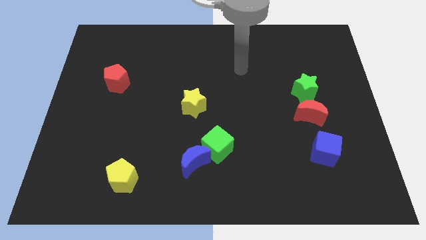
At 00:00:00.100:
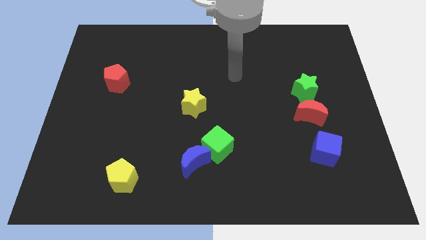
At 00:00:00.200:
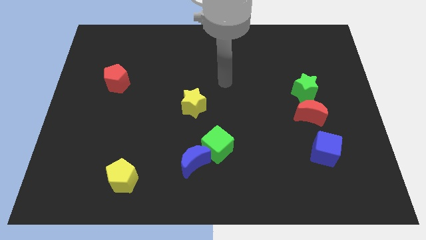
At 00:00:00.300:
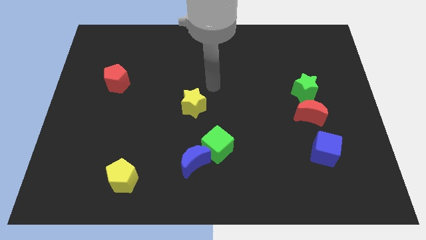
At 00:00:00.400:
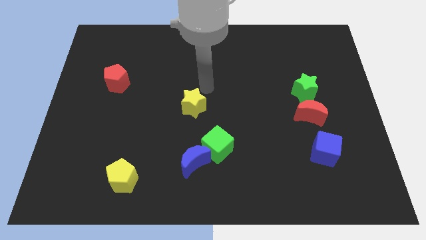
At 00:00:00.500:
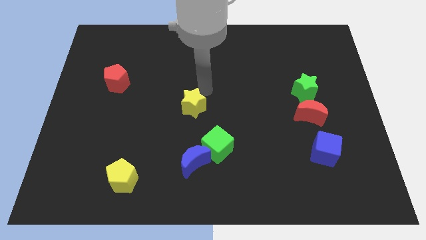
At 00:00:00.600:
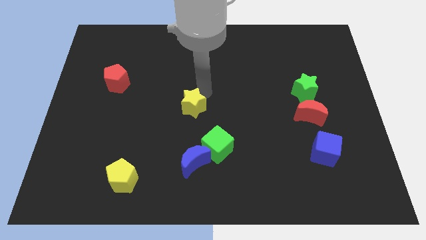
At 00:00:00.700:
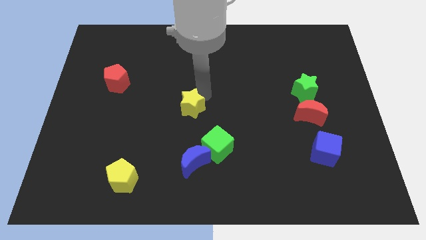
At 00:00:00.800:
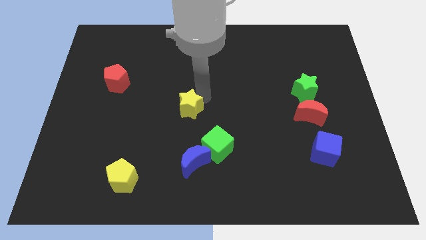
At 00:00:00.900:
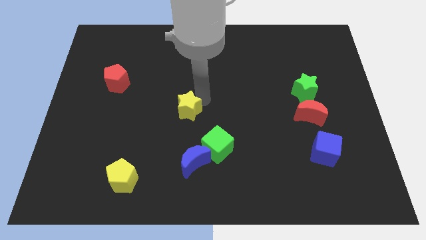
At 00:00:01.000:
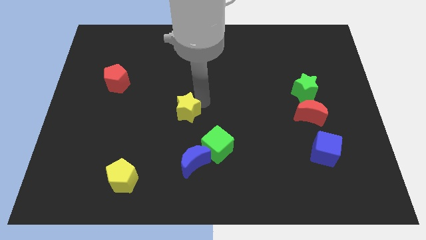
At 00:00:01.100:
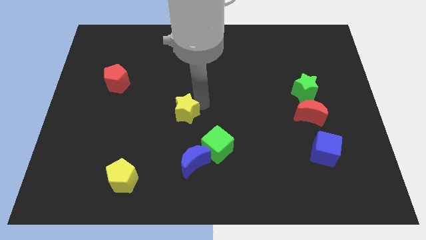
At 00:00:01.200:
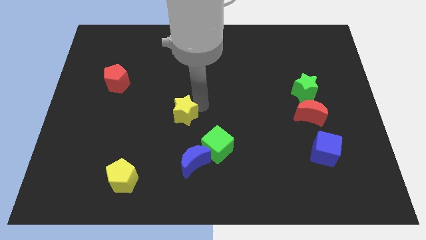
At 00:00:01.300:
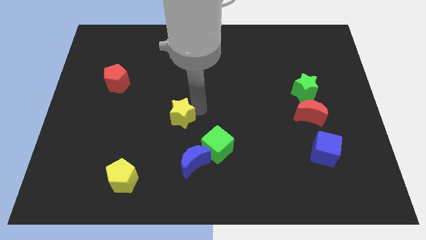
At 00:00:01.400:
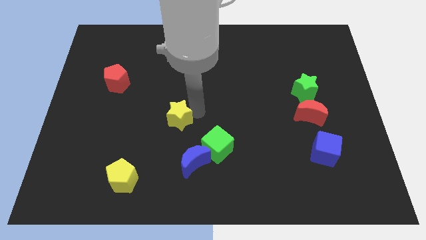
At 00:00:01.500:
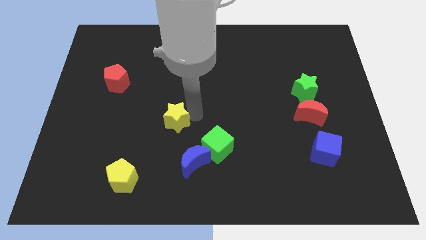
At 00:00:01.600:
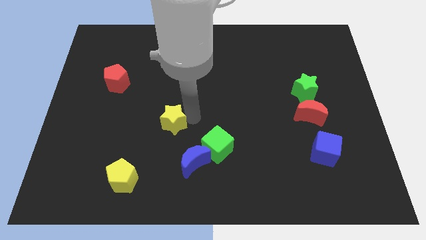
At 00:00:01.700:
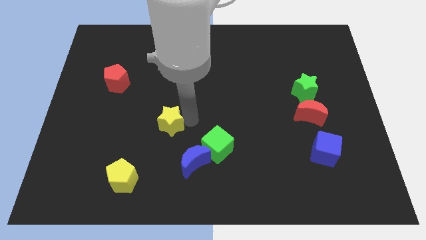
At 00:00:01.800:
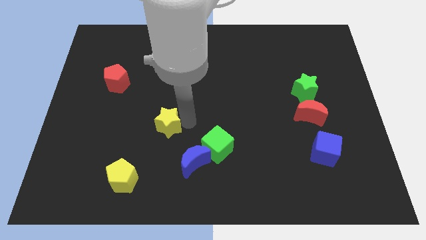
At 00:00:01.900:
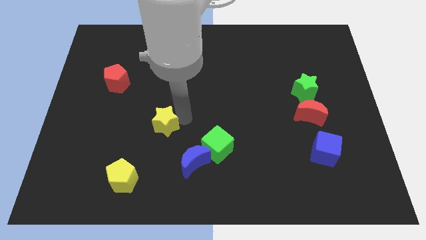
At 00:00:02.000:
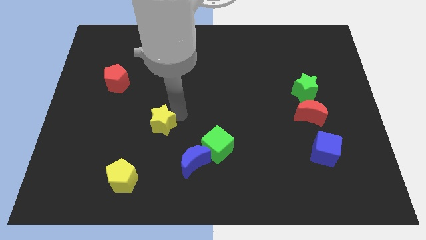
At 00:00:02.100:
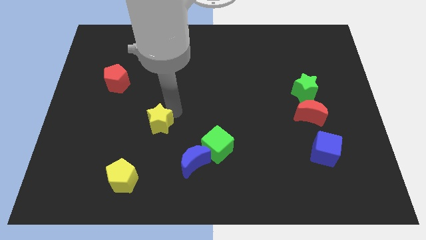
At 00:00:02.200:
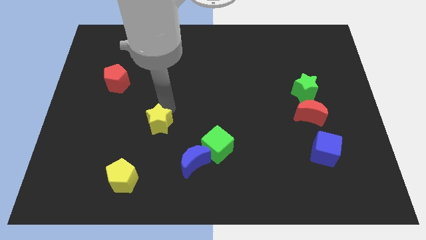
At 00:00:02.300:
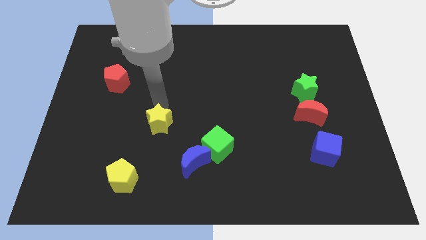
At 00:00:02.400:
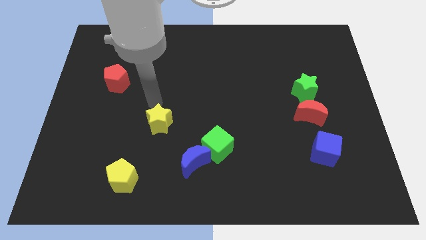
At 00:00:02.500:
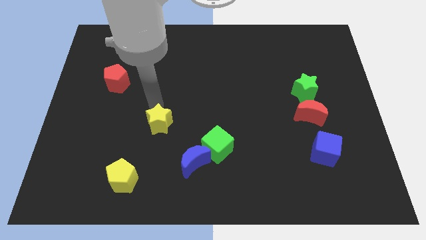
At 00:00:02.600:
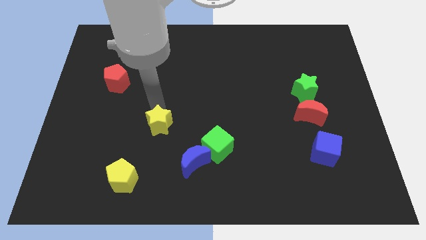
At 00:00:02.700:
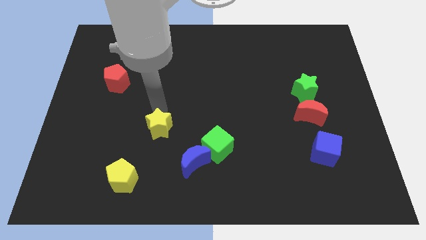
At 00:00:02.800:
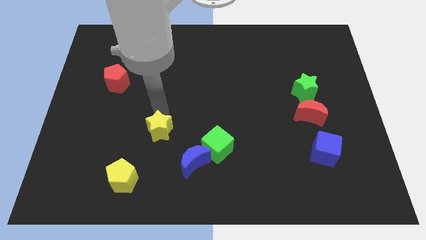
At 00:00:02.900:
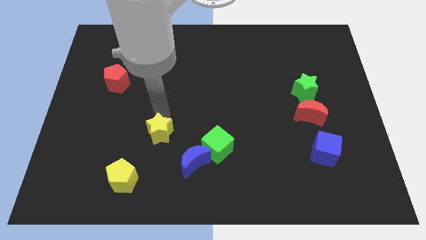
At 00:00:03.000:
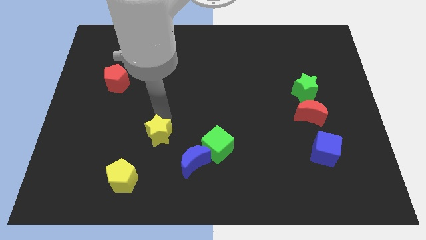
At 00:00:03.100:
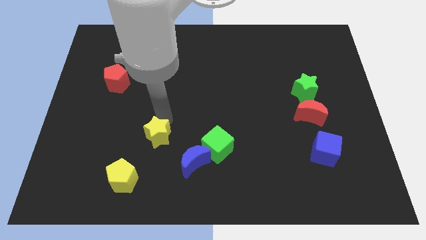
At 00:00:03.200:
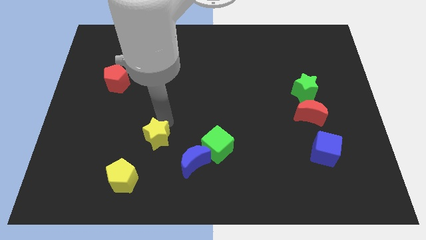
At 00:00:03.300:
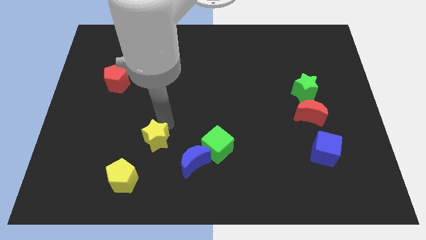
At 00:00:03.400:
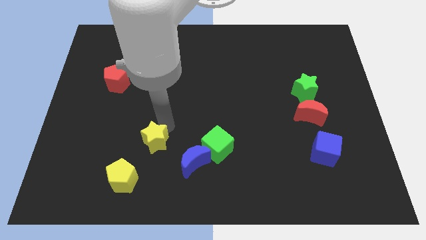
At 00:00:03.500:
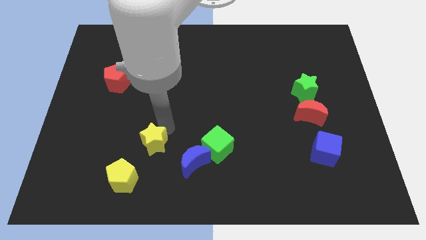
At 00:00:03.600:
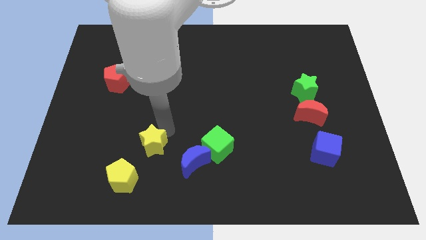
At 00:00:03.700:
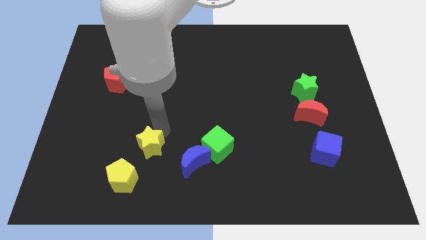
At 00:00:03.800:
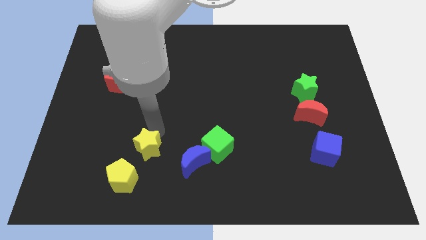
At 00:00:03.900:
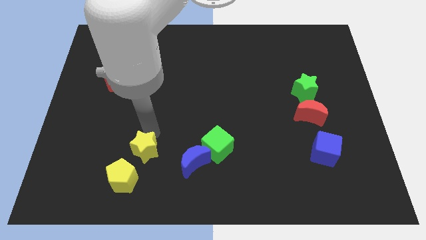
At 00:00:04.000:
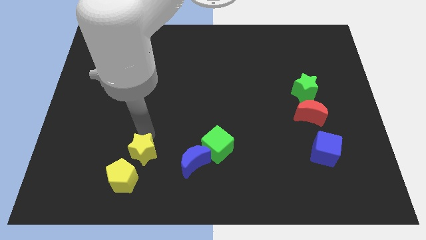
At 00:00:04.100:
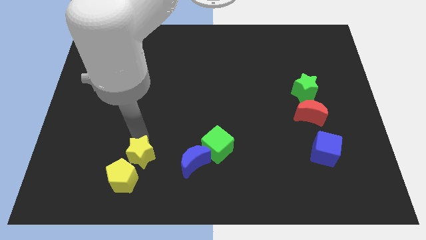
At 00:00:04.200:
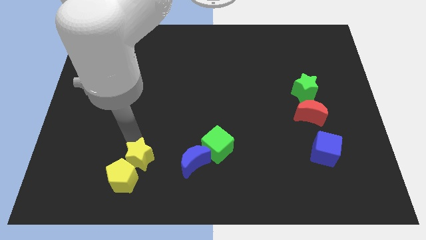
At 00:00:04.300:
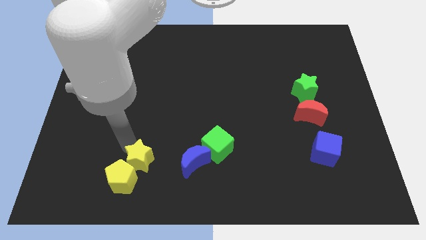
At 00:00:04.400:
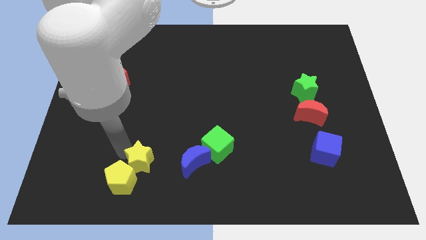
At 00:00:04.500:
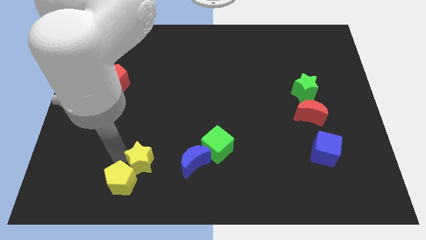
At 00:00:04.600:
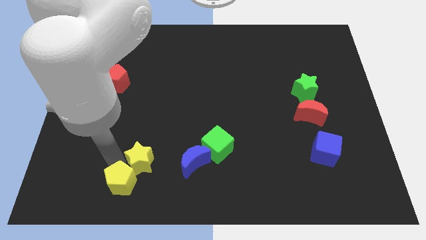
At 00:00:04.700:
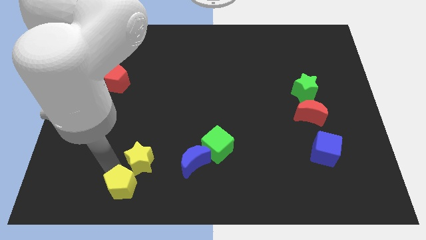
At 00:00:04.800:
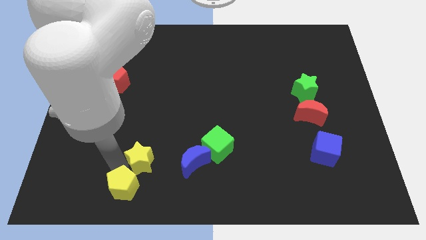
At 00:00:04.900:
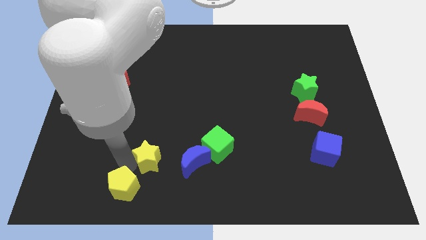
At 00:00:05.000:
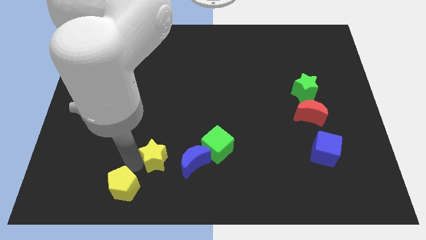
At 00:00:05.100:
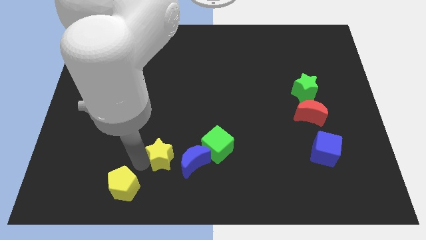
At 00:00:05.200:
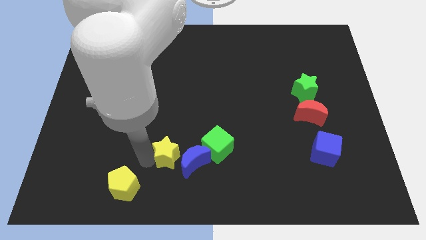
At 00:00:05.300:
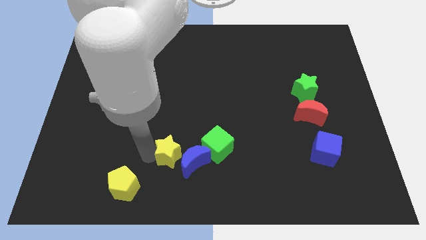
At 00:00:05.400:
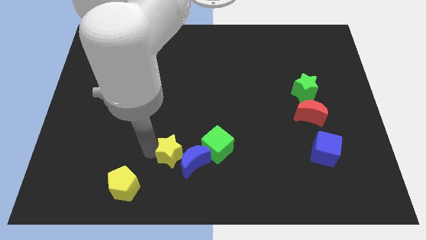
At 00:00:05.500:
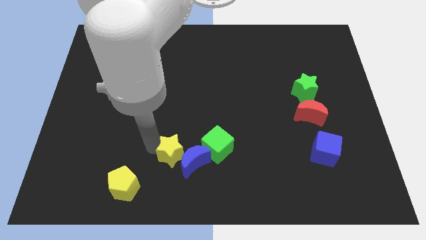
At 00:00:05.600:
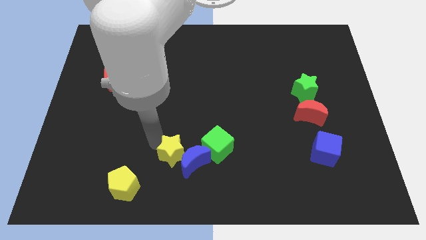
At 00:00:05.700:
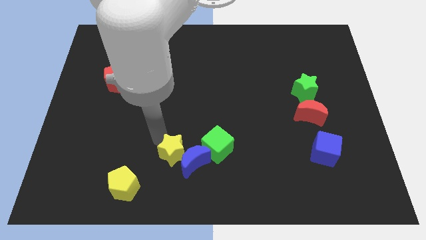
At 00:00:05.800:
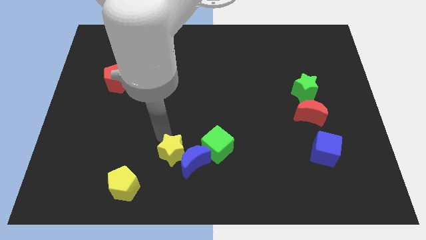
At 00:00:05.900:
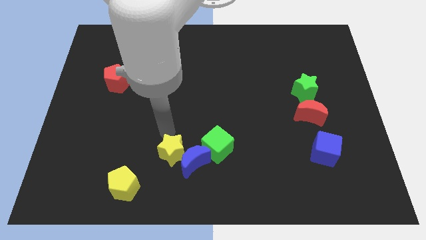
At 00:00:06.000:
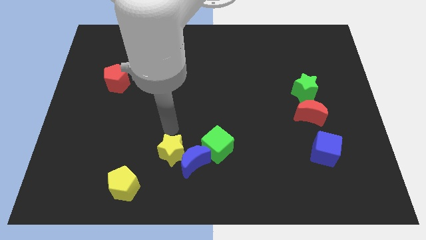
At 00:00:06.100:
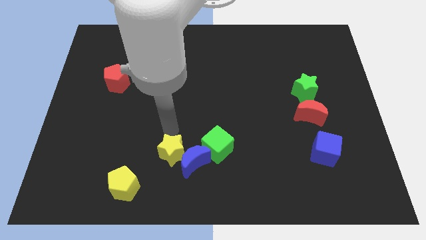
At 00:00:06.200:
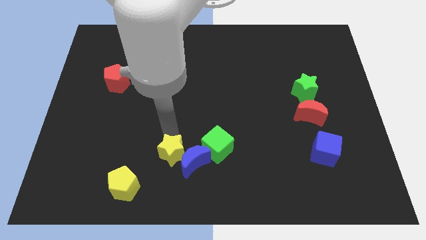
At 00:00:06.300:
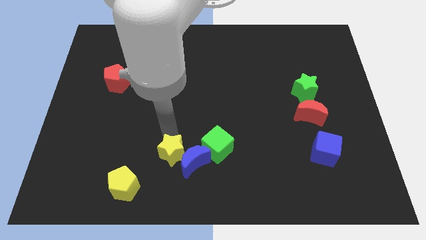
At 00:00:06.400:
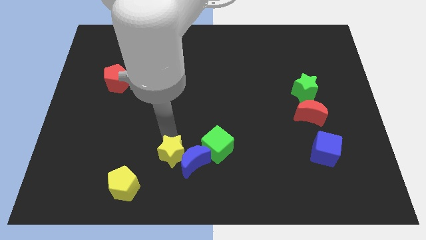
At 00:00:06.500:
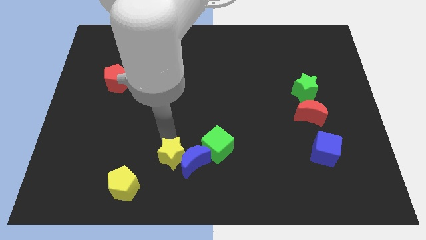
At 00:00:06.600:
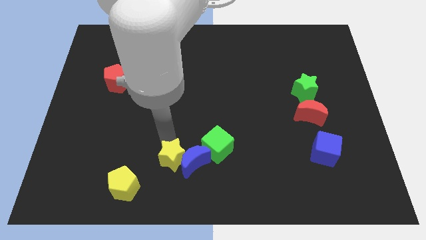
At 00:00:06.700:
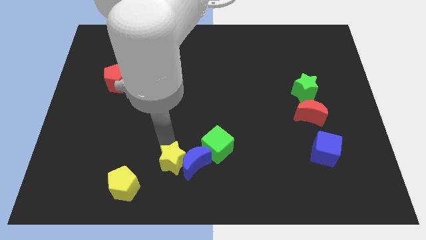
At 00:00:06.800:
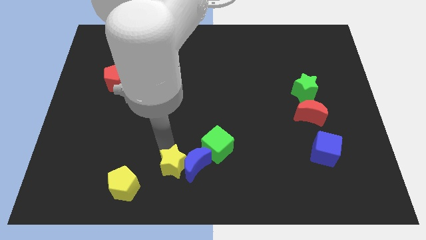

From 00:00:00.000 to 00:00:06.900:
put the yellow star to the bottom
